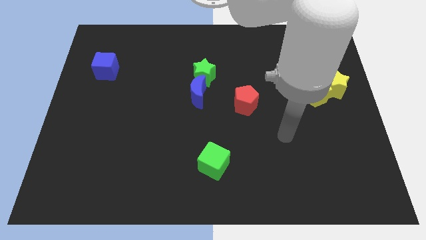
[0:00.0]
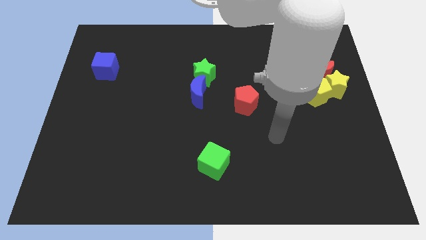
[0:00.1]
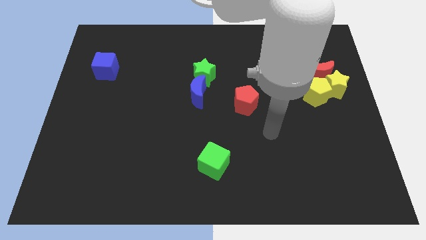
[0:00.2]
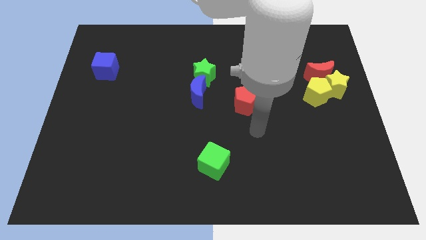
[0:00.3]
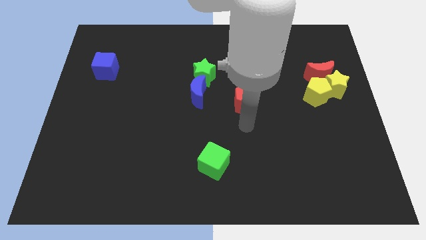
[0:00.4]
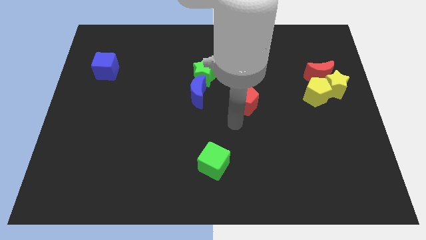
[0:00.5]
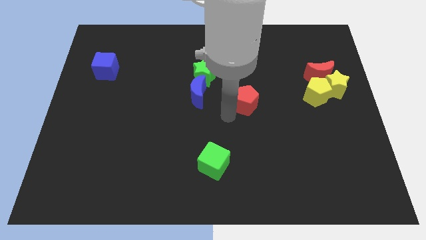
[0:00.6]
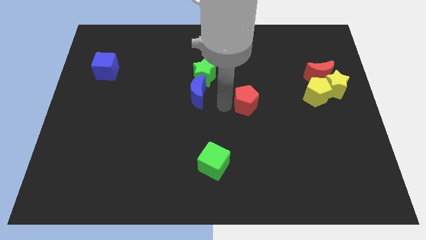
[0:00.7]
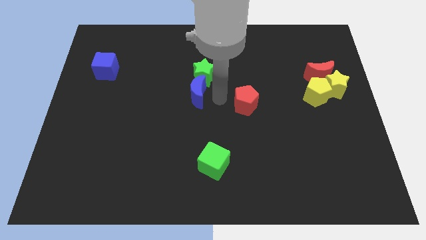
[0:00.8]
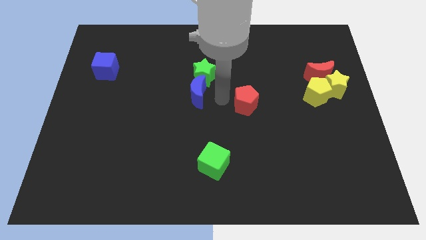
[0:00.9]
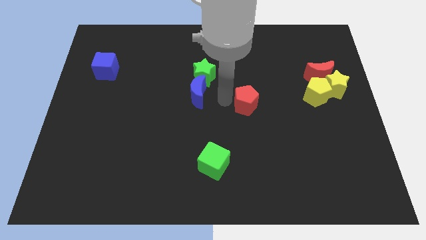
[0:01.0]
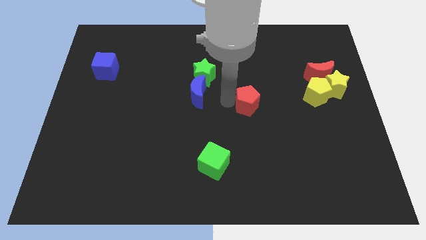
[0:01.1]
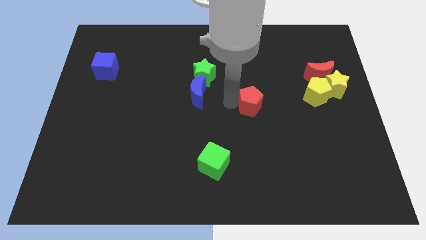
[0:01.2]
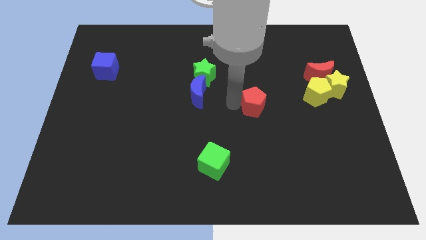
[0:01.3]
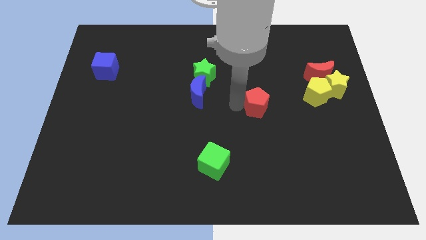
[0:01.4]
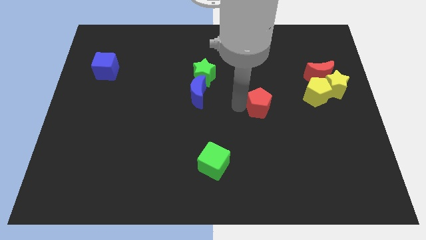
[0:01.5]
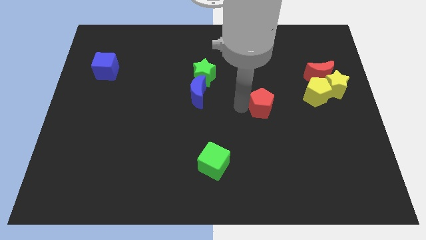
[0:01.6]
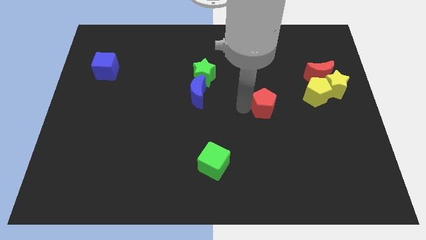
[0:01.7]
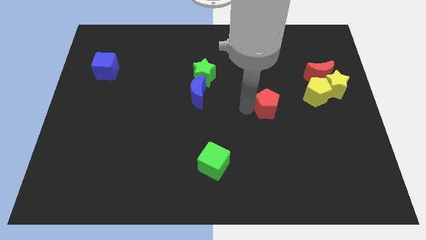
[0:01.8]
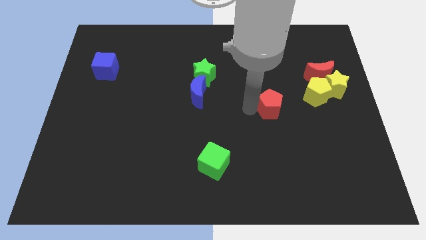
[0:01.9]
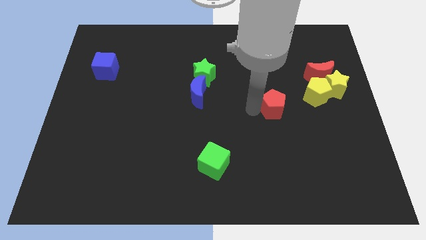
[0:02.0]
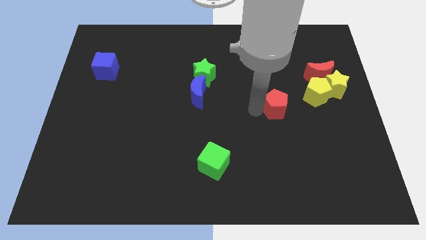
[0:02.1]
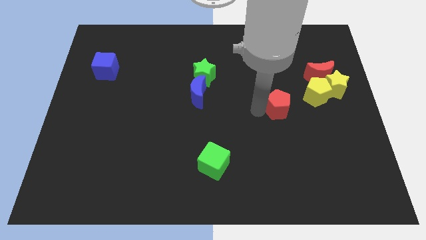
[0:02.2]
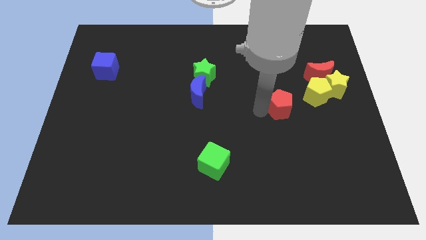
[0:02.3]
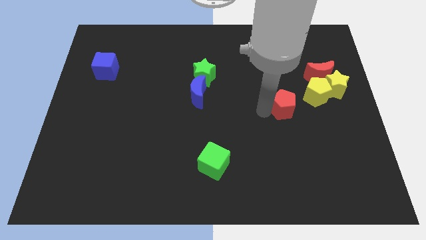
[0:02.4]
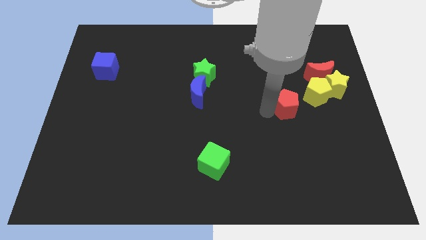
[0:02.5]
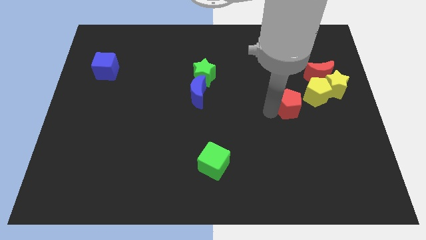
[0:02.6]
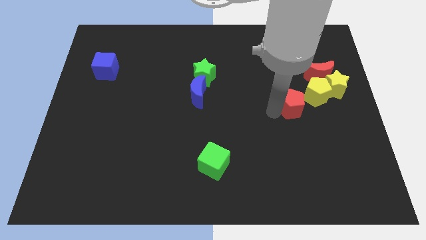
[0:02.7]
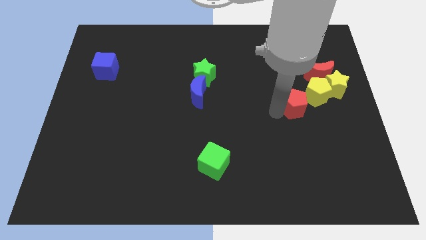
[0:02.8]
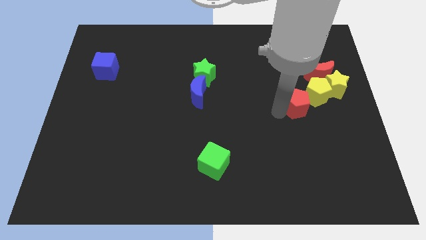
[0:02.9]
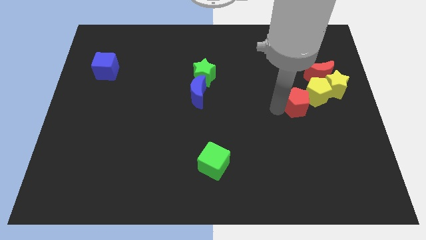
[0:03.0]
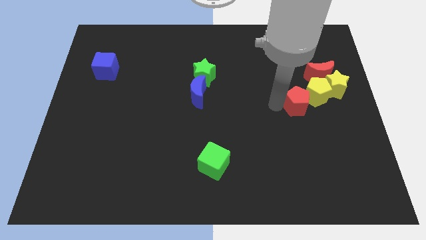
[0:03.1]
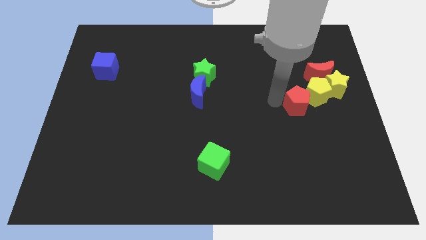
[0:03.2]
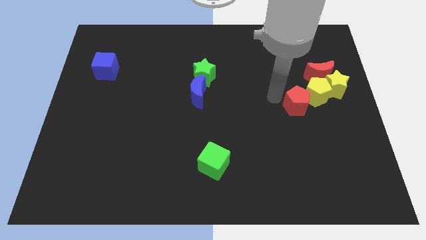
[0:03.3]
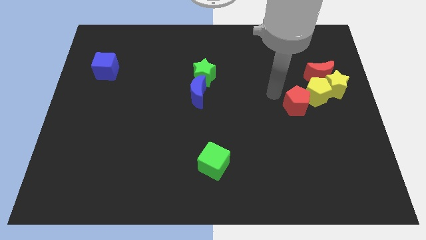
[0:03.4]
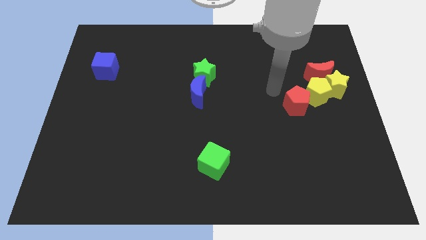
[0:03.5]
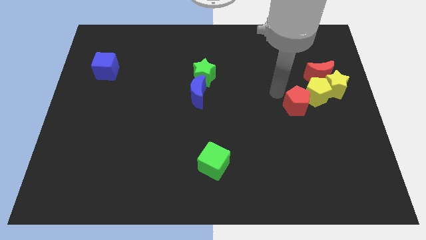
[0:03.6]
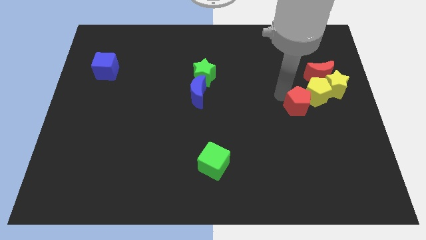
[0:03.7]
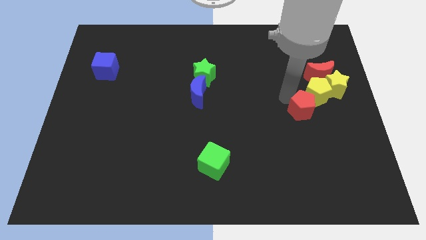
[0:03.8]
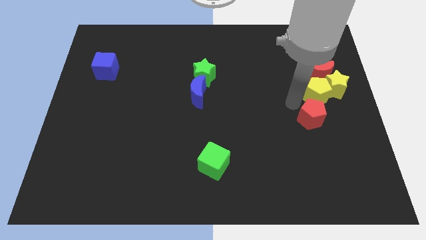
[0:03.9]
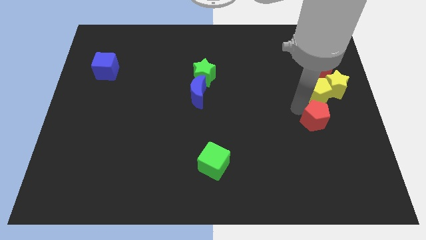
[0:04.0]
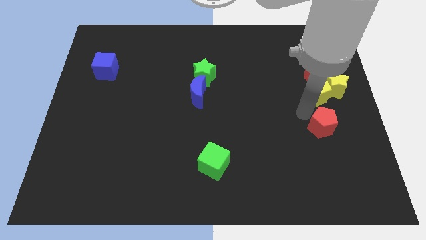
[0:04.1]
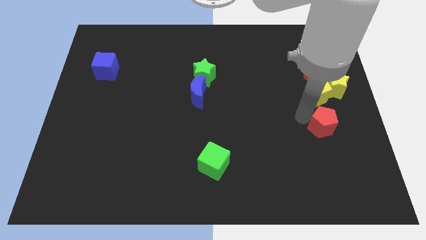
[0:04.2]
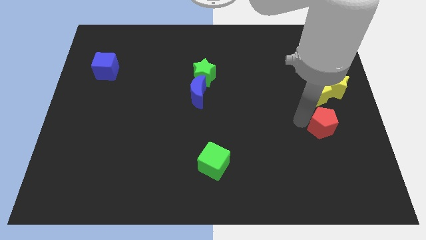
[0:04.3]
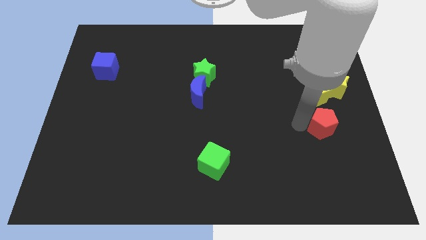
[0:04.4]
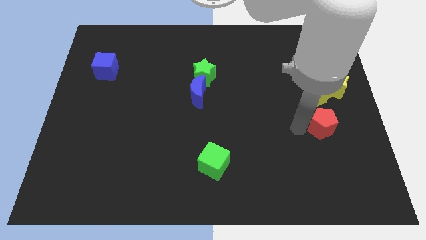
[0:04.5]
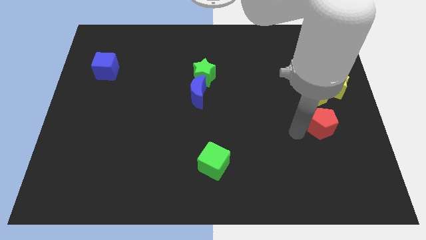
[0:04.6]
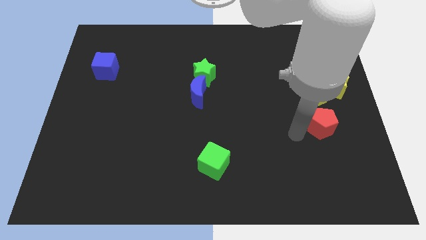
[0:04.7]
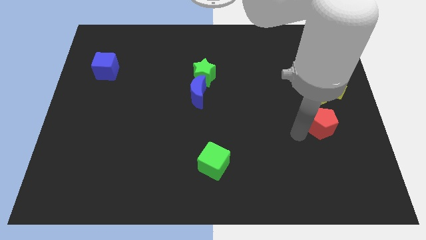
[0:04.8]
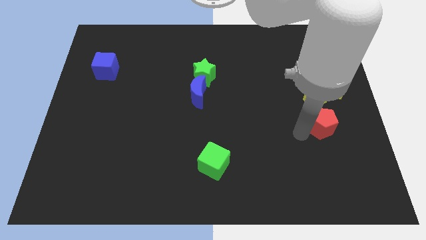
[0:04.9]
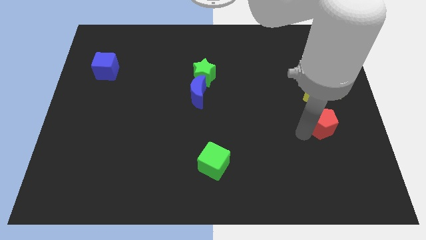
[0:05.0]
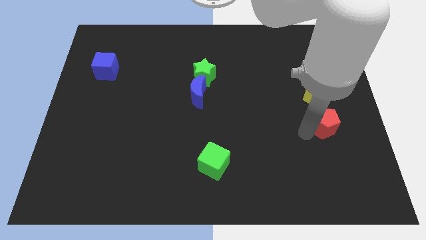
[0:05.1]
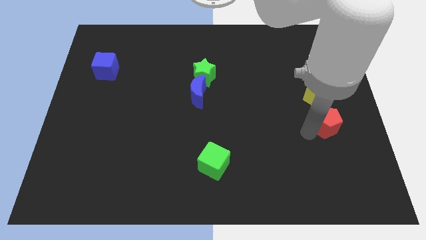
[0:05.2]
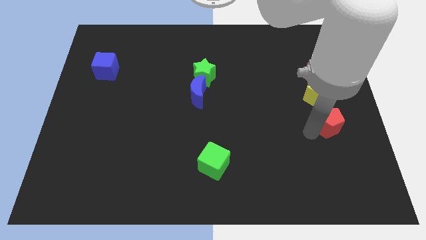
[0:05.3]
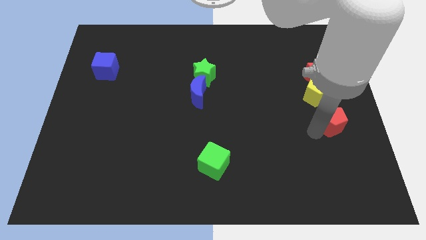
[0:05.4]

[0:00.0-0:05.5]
put the red pentagon to the right side of the board

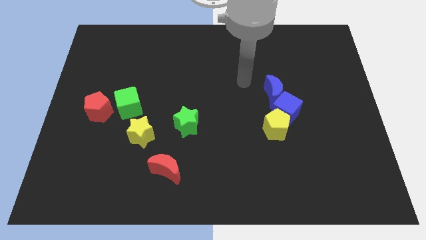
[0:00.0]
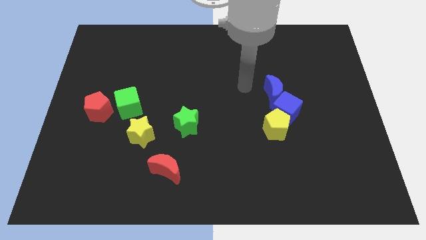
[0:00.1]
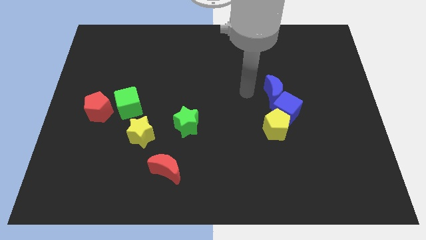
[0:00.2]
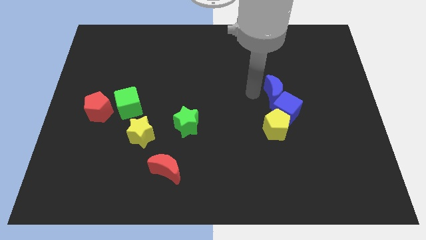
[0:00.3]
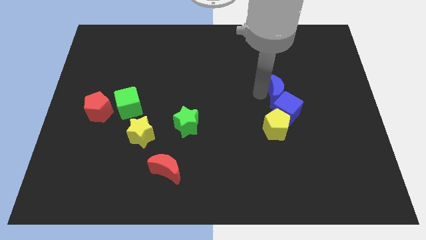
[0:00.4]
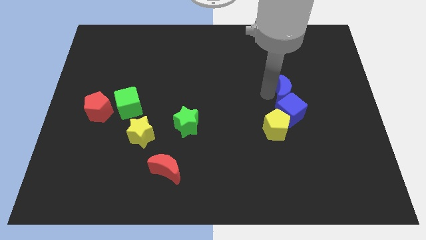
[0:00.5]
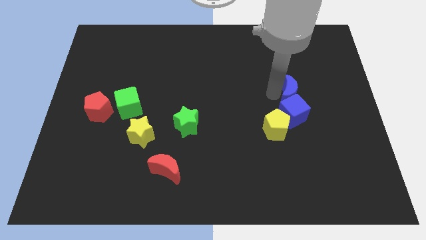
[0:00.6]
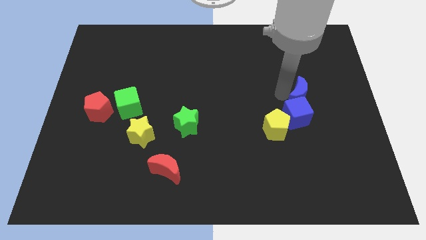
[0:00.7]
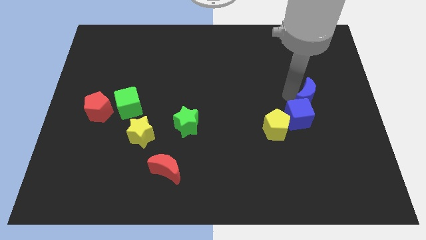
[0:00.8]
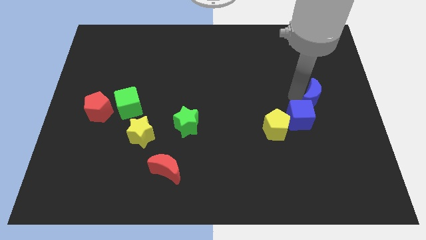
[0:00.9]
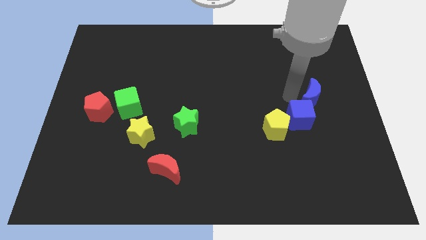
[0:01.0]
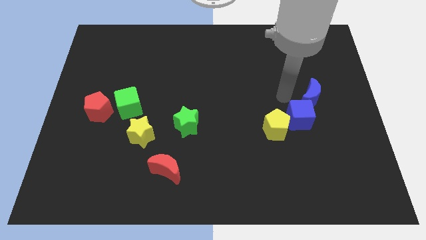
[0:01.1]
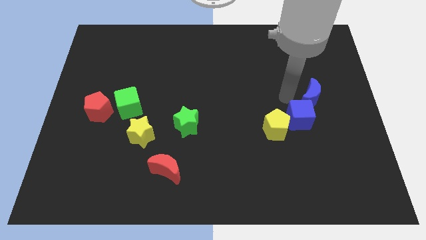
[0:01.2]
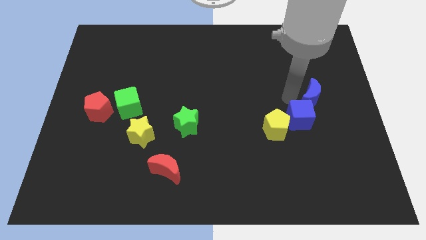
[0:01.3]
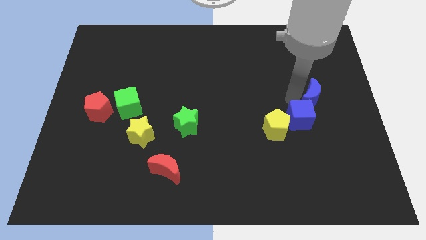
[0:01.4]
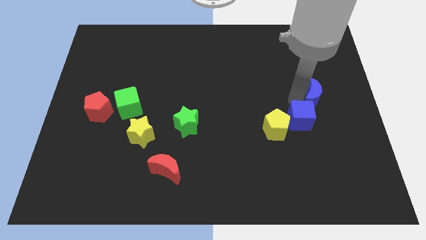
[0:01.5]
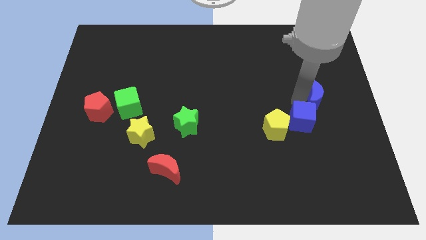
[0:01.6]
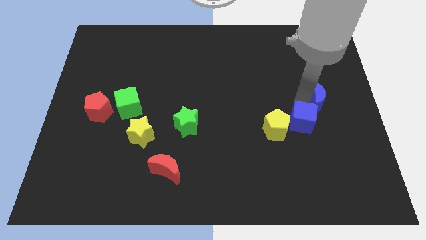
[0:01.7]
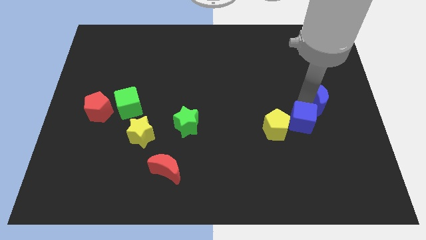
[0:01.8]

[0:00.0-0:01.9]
push the blue moon to the right side
